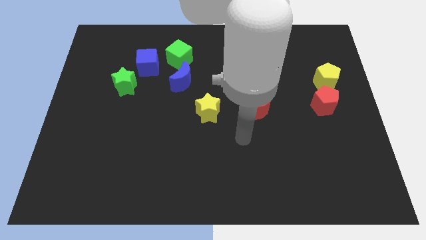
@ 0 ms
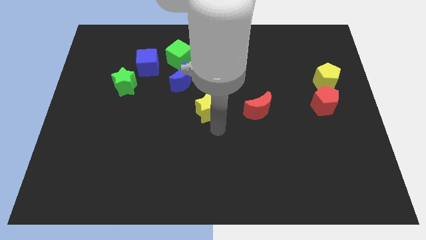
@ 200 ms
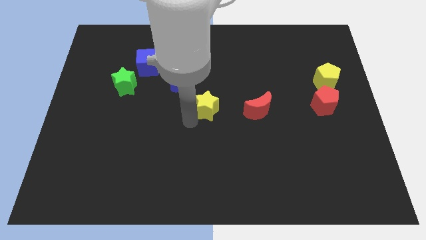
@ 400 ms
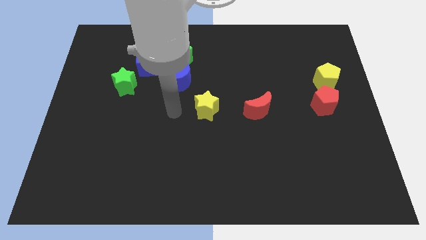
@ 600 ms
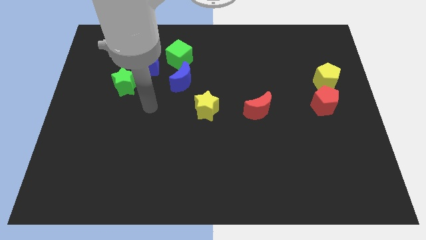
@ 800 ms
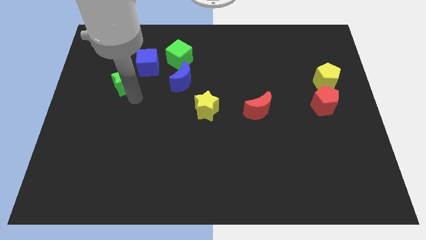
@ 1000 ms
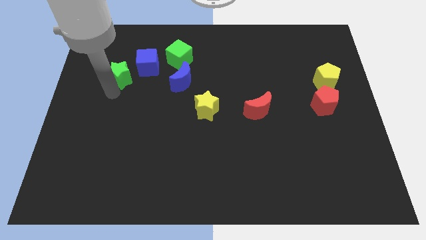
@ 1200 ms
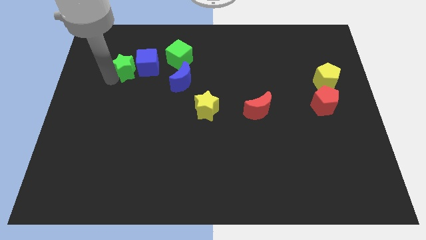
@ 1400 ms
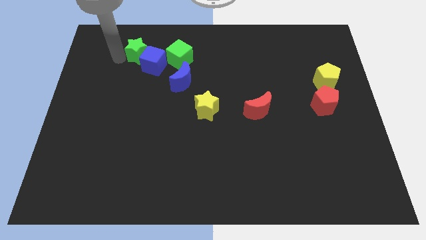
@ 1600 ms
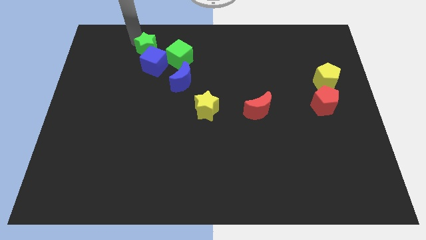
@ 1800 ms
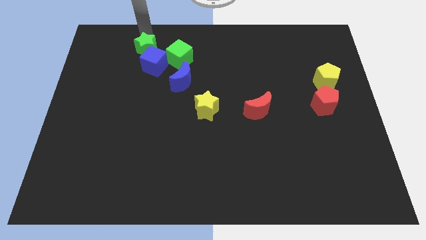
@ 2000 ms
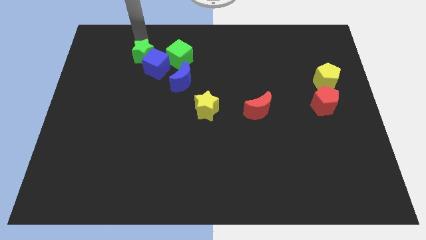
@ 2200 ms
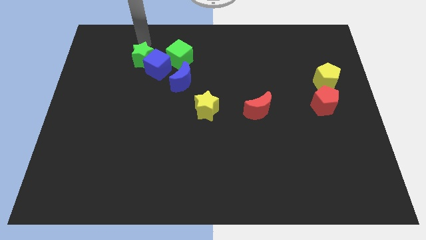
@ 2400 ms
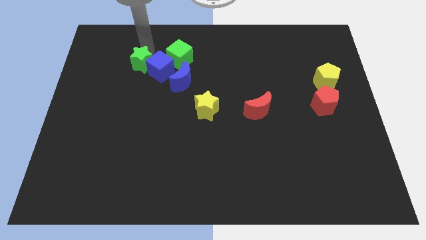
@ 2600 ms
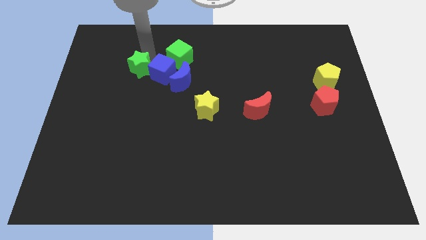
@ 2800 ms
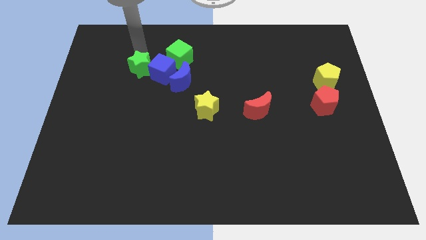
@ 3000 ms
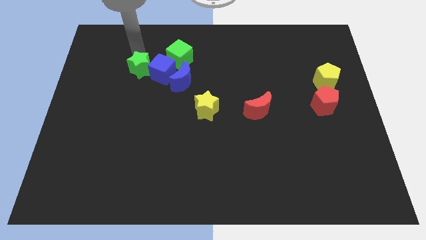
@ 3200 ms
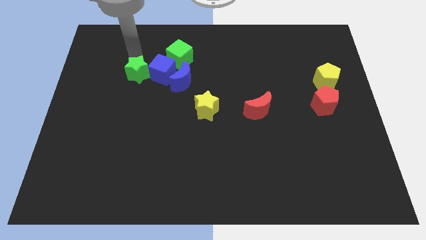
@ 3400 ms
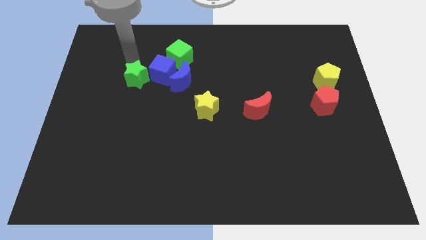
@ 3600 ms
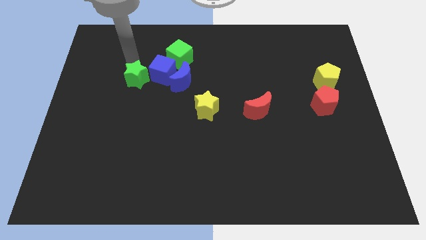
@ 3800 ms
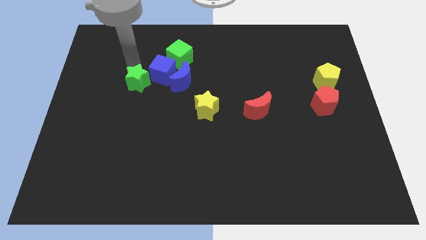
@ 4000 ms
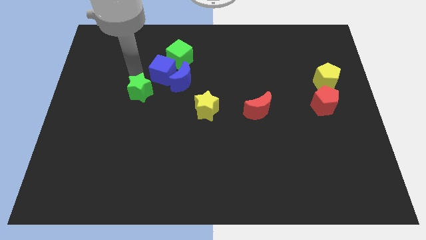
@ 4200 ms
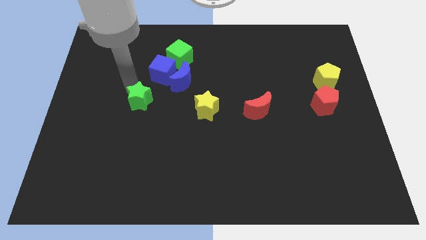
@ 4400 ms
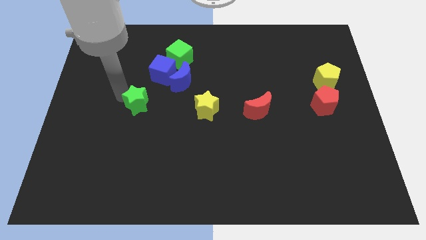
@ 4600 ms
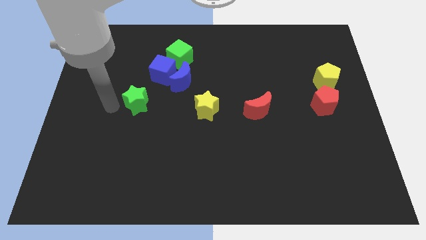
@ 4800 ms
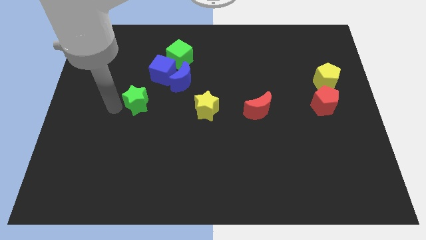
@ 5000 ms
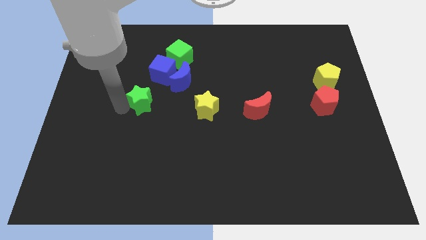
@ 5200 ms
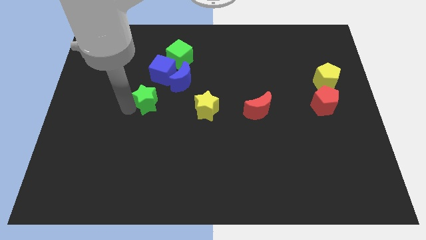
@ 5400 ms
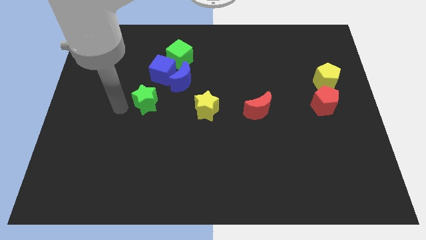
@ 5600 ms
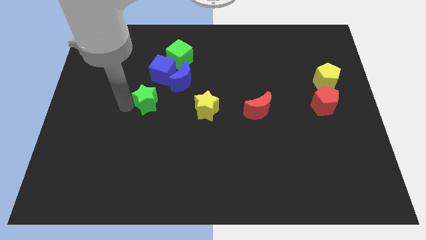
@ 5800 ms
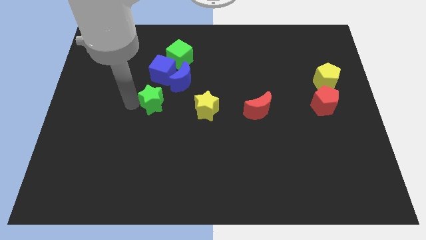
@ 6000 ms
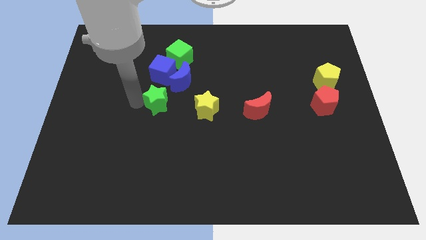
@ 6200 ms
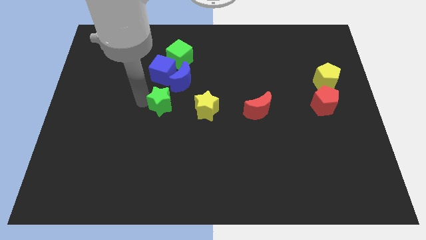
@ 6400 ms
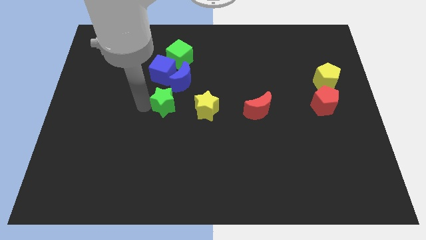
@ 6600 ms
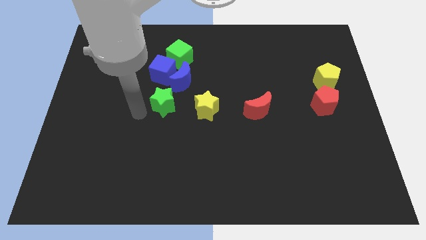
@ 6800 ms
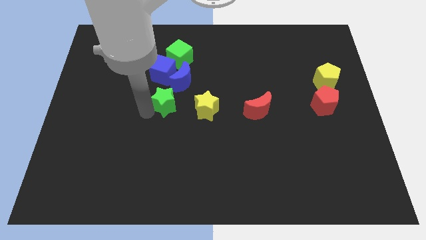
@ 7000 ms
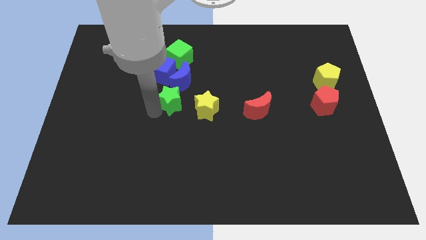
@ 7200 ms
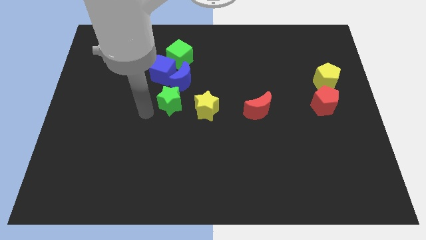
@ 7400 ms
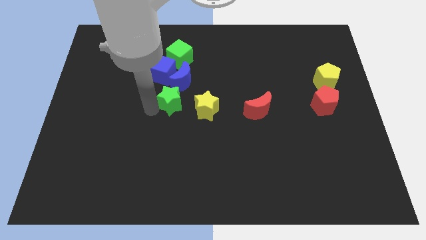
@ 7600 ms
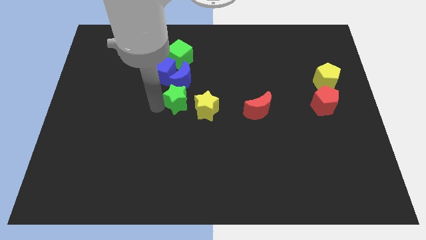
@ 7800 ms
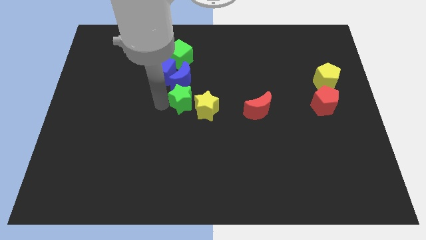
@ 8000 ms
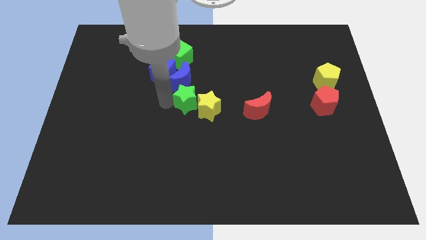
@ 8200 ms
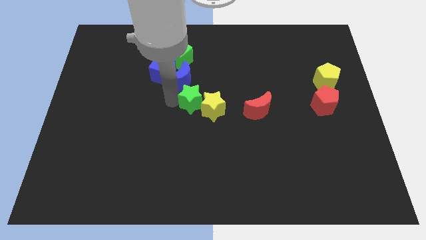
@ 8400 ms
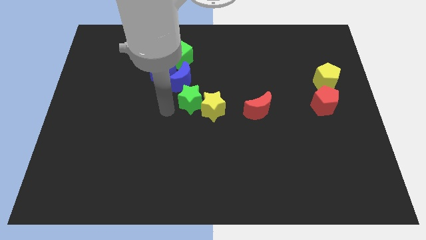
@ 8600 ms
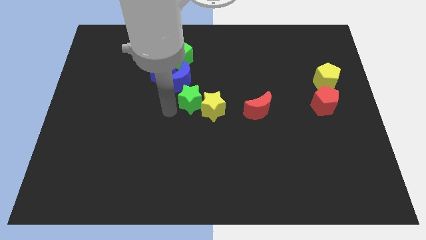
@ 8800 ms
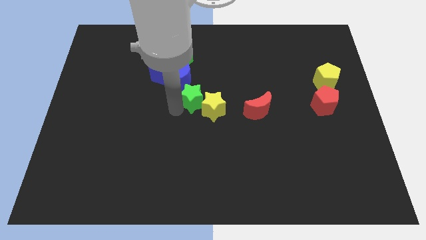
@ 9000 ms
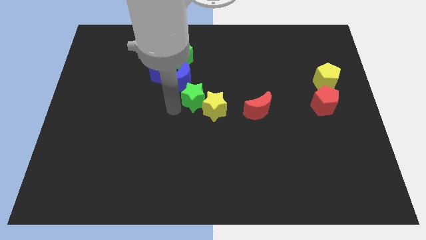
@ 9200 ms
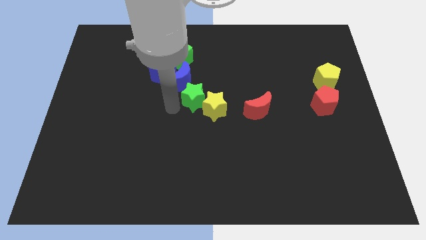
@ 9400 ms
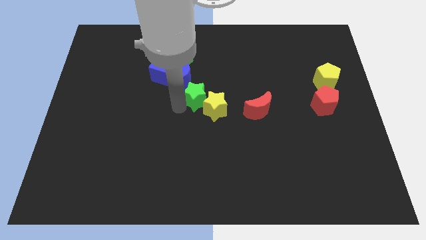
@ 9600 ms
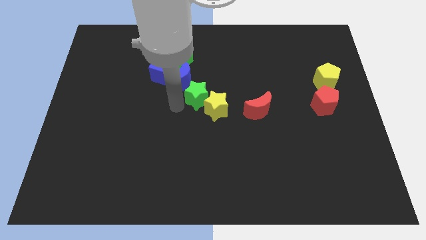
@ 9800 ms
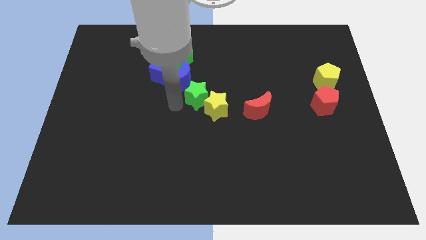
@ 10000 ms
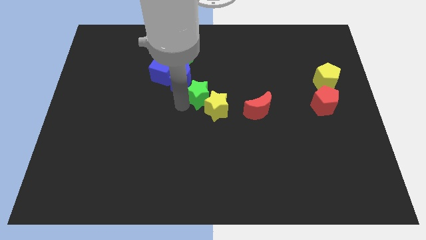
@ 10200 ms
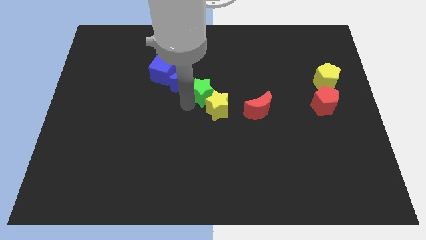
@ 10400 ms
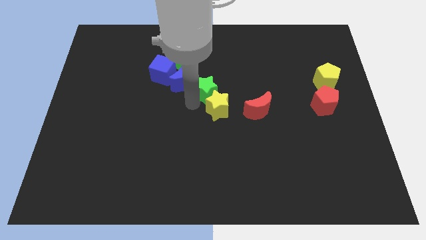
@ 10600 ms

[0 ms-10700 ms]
push the green star right

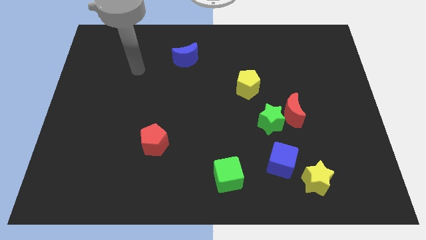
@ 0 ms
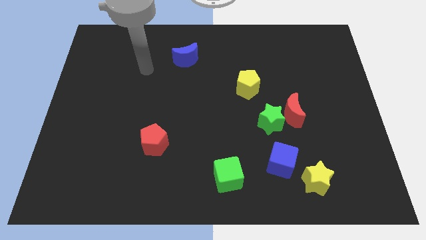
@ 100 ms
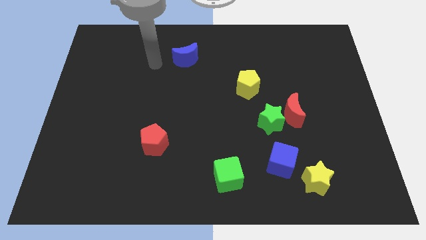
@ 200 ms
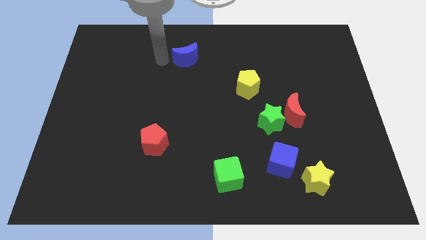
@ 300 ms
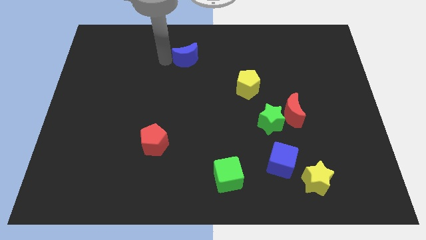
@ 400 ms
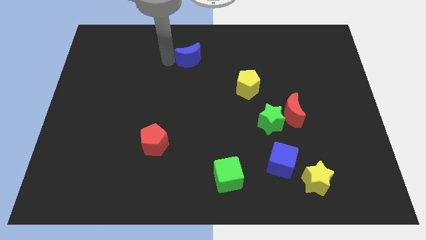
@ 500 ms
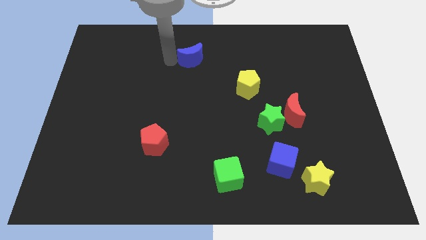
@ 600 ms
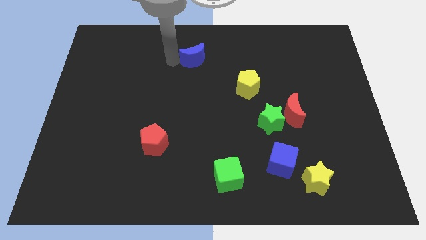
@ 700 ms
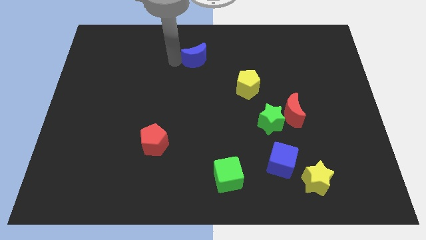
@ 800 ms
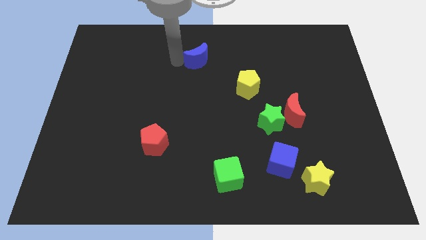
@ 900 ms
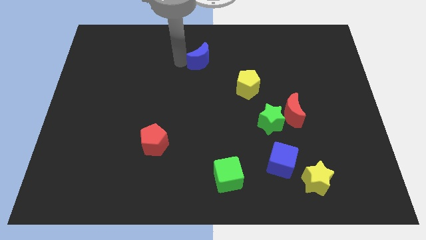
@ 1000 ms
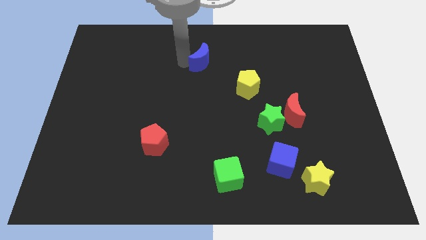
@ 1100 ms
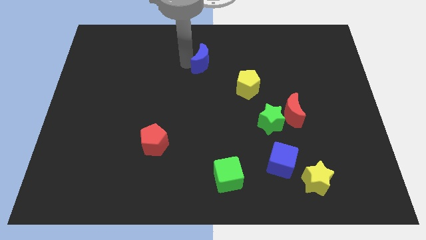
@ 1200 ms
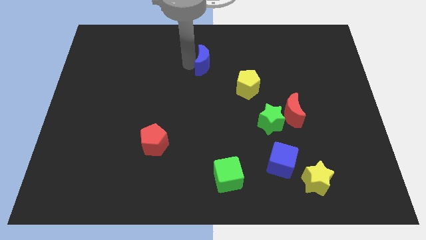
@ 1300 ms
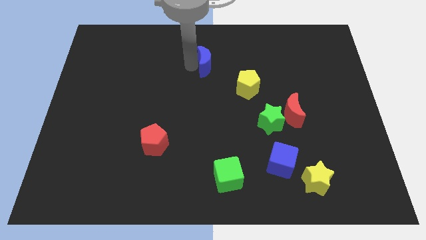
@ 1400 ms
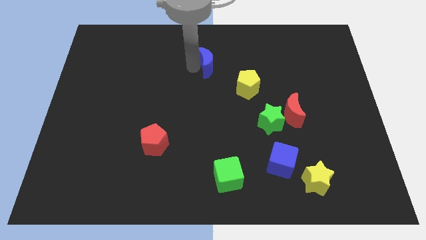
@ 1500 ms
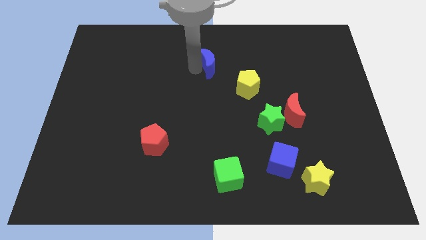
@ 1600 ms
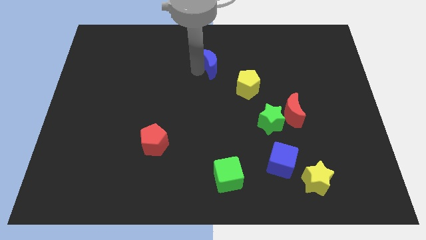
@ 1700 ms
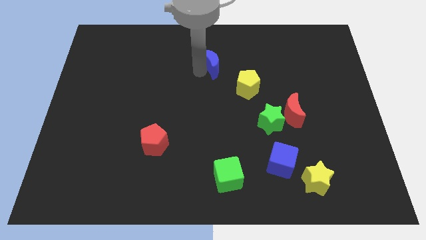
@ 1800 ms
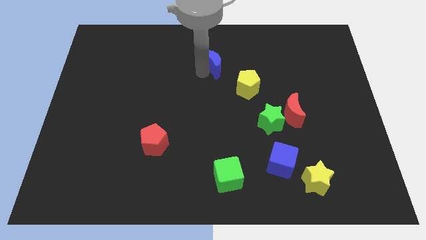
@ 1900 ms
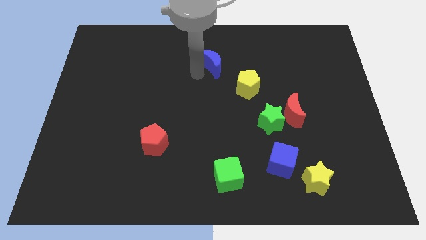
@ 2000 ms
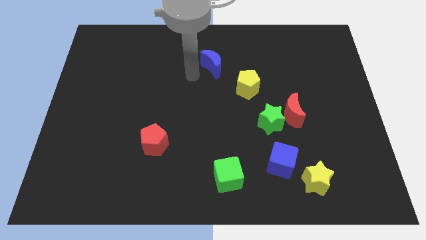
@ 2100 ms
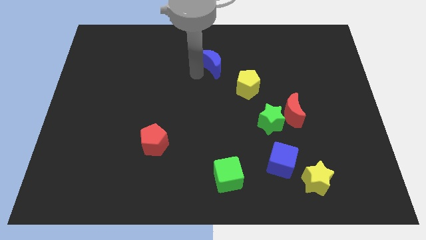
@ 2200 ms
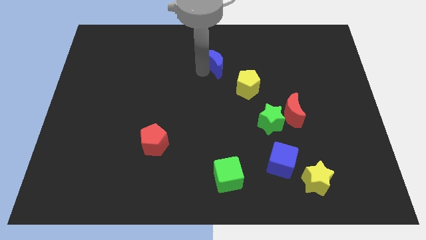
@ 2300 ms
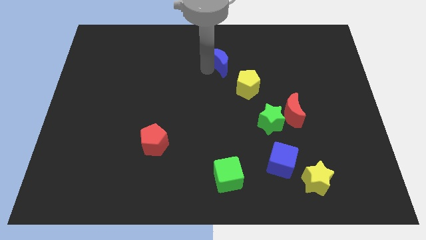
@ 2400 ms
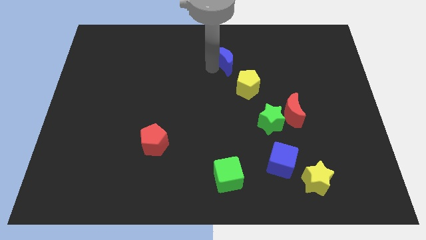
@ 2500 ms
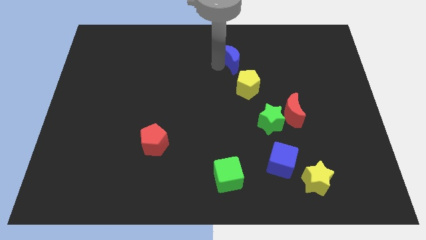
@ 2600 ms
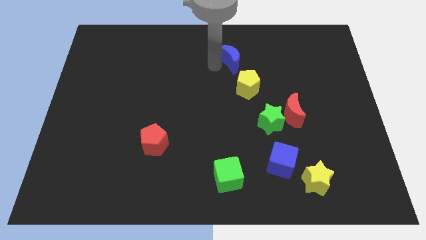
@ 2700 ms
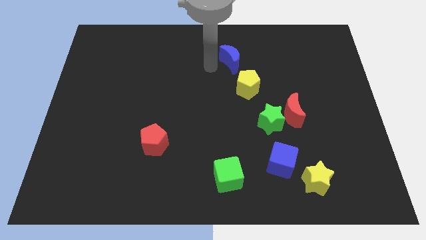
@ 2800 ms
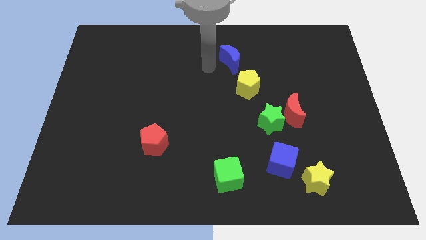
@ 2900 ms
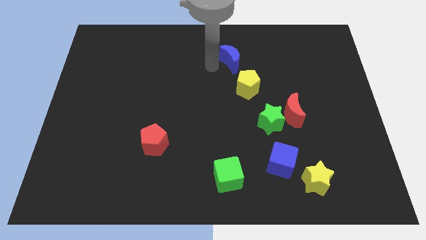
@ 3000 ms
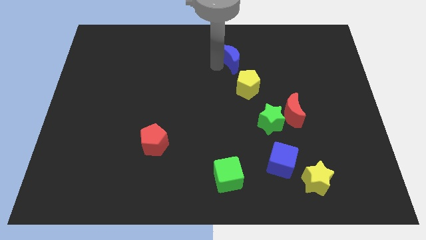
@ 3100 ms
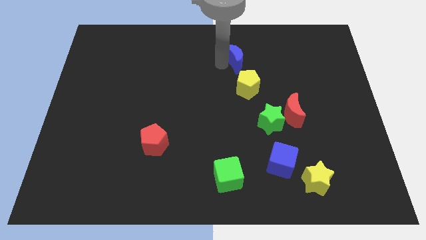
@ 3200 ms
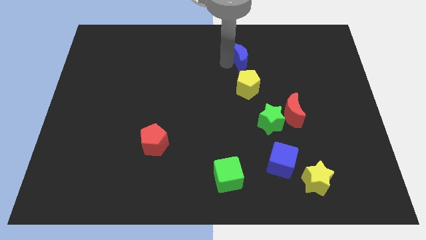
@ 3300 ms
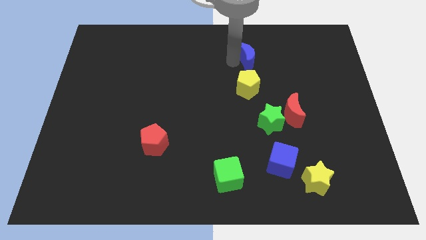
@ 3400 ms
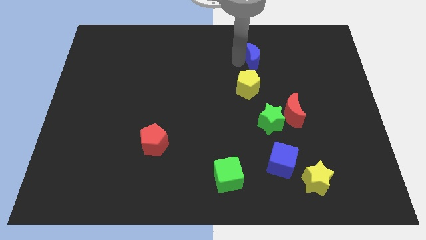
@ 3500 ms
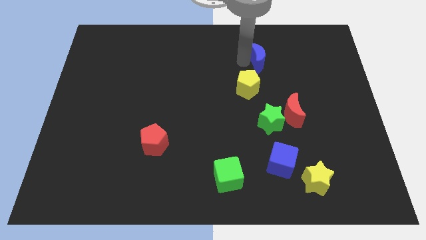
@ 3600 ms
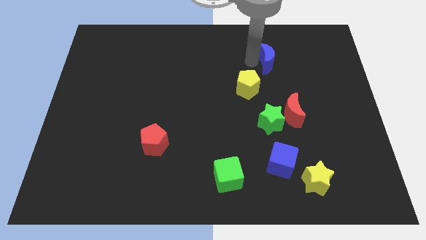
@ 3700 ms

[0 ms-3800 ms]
push the blue moon to the right
